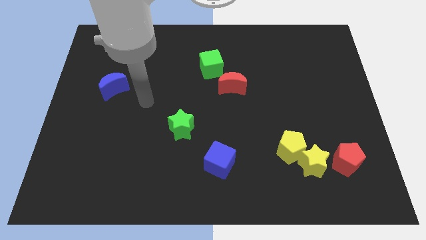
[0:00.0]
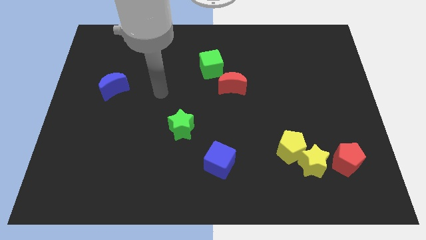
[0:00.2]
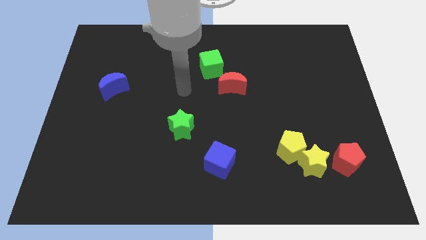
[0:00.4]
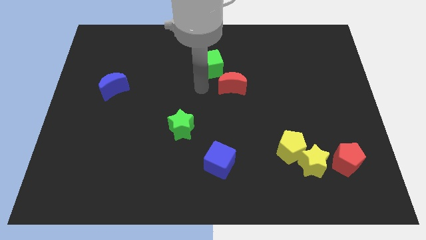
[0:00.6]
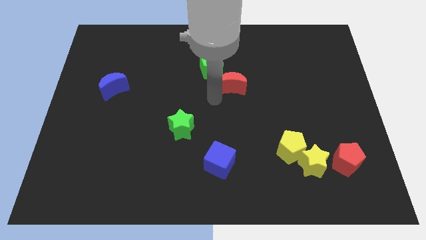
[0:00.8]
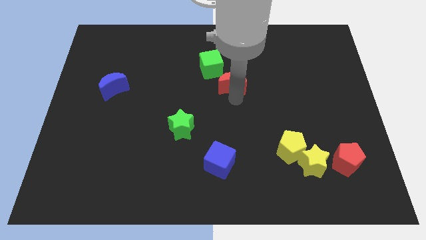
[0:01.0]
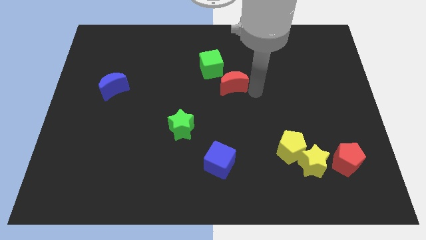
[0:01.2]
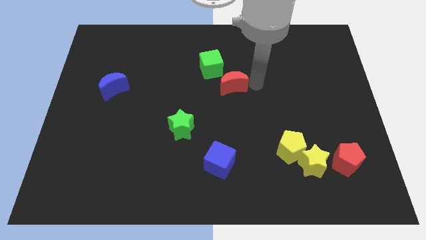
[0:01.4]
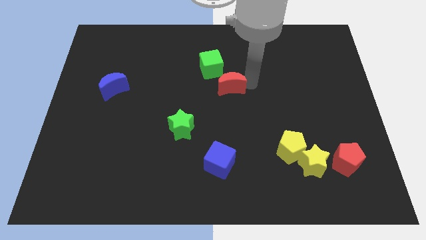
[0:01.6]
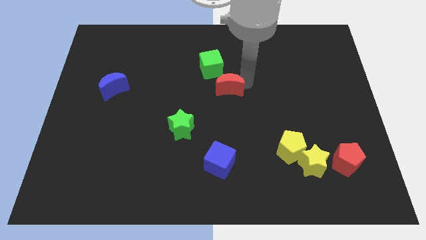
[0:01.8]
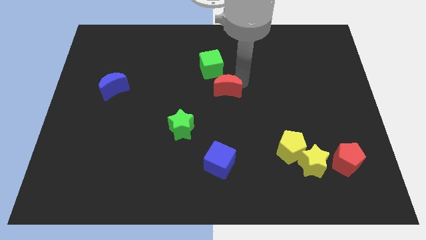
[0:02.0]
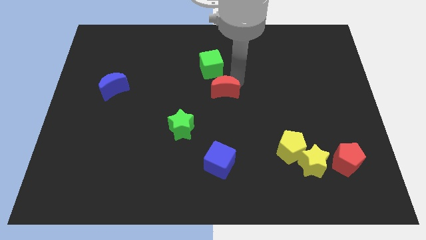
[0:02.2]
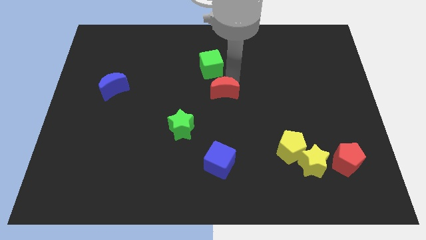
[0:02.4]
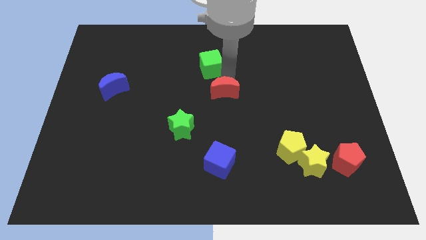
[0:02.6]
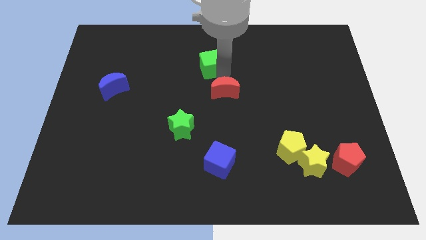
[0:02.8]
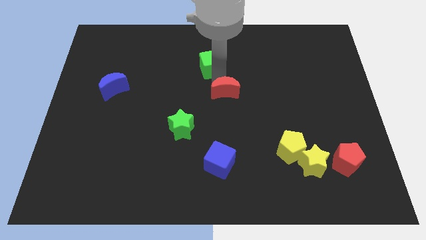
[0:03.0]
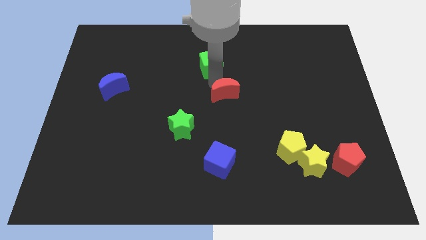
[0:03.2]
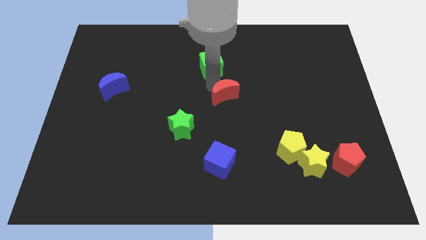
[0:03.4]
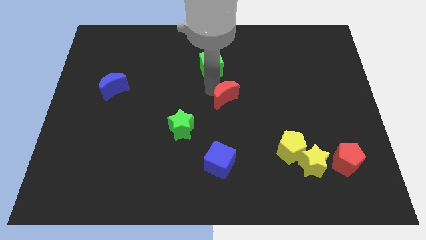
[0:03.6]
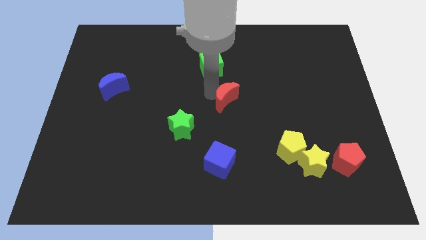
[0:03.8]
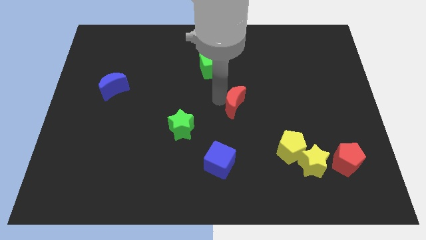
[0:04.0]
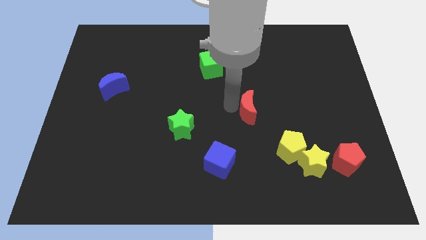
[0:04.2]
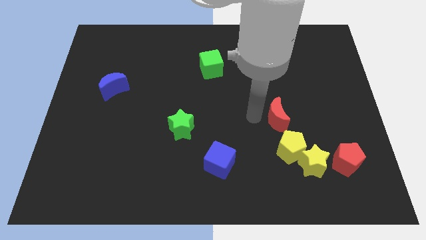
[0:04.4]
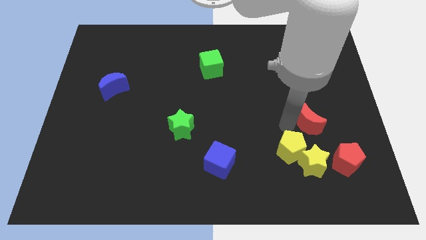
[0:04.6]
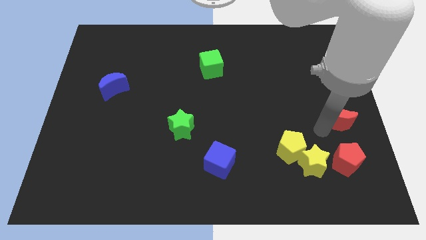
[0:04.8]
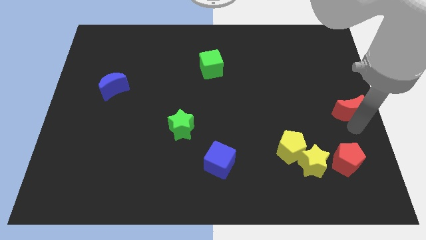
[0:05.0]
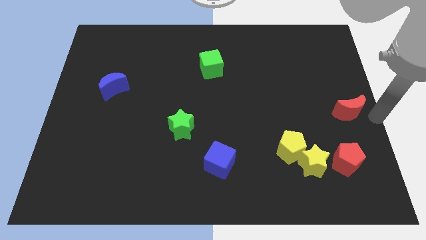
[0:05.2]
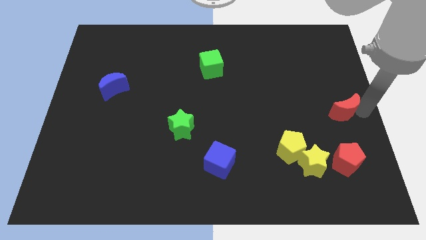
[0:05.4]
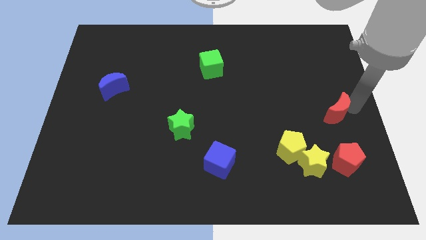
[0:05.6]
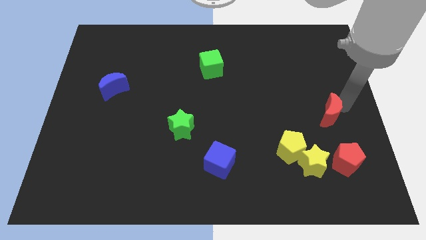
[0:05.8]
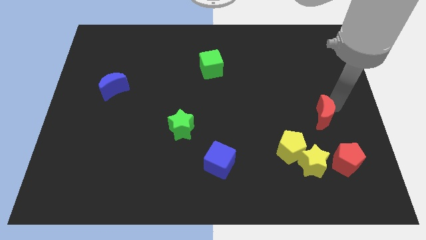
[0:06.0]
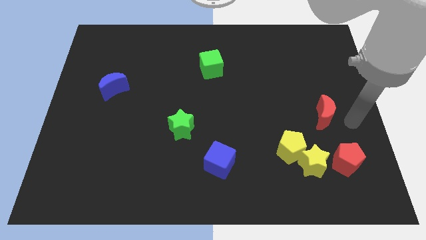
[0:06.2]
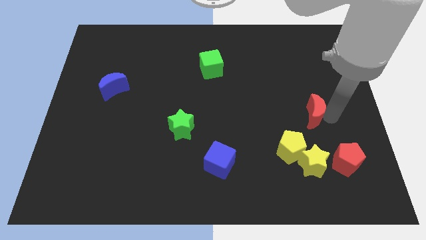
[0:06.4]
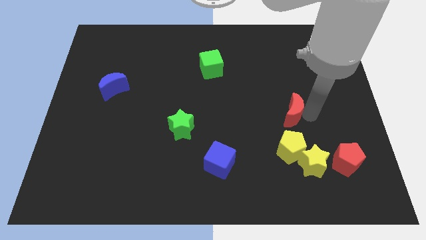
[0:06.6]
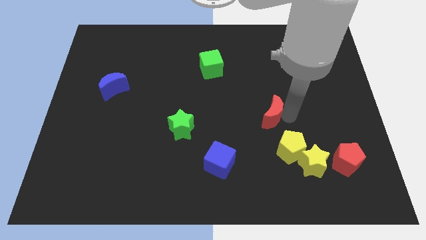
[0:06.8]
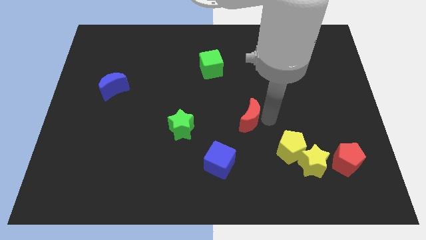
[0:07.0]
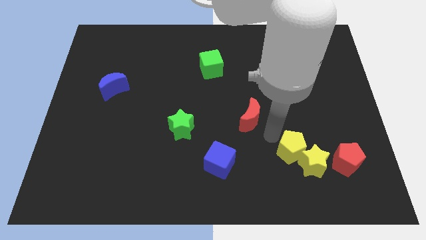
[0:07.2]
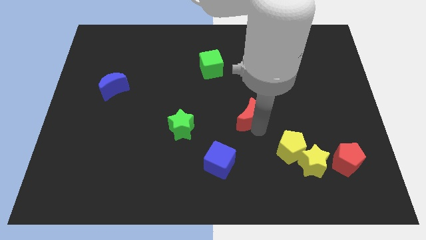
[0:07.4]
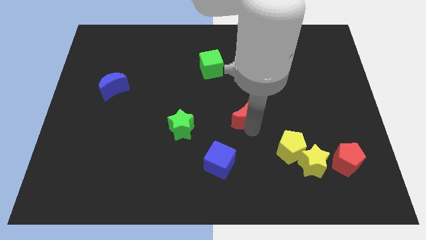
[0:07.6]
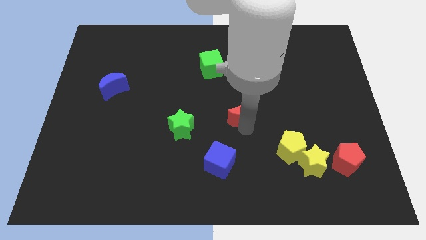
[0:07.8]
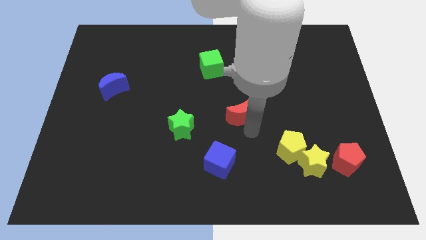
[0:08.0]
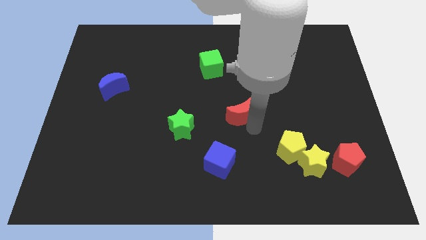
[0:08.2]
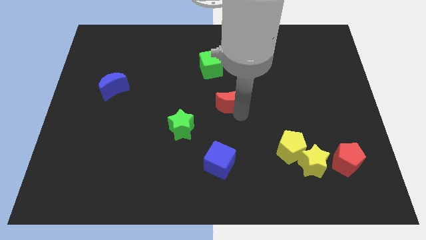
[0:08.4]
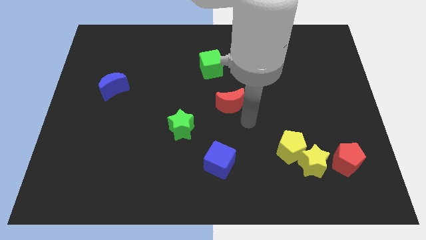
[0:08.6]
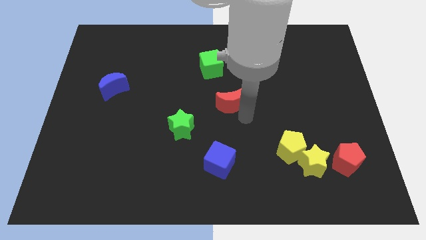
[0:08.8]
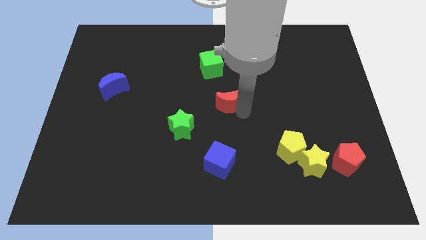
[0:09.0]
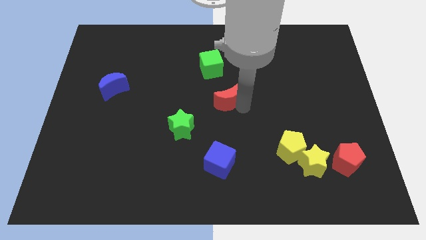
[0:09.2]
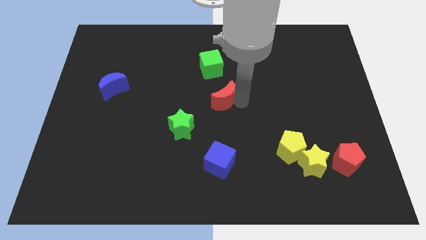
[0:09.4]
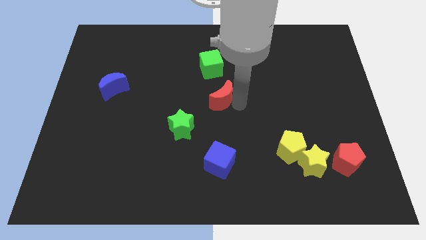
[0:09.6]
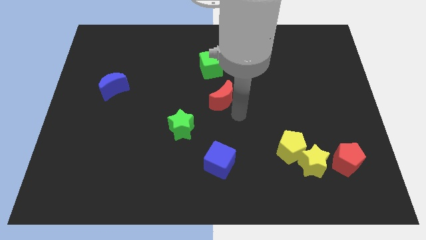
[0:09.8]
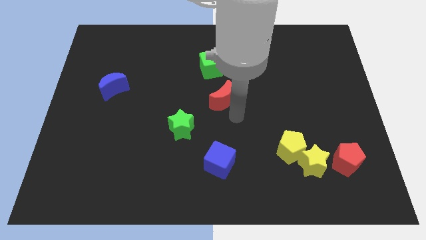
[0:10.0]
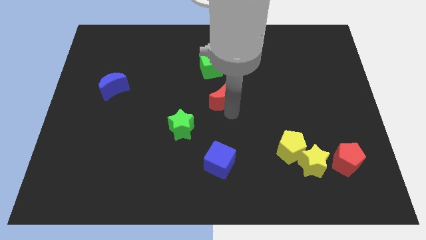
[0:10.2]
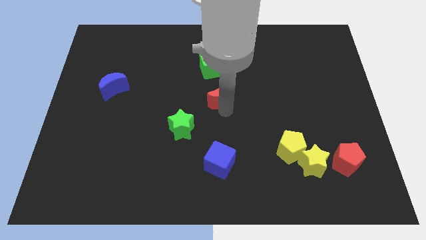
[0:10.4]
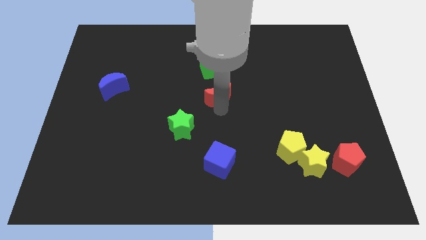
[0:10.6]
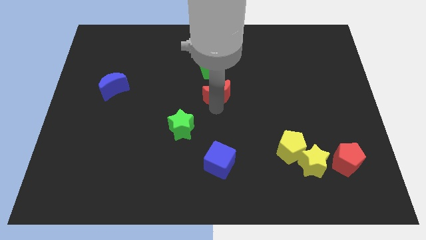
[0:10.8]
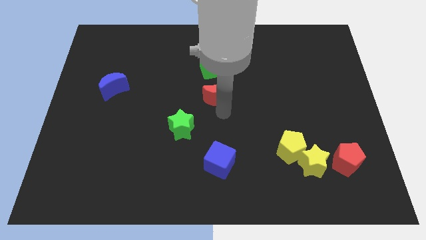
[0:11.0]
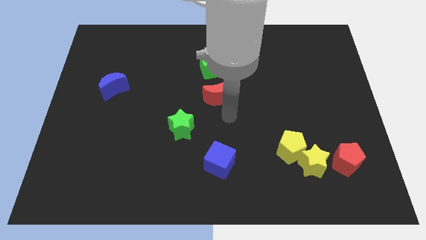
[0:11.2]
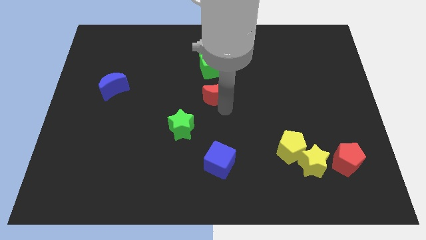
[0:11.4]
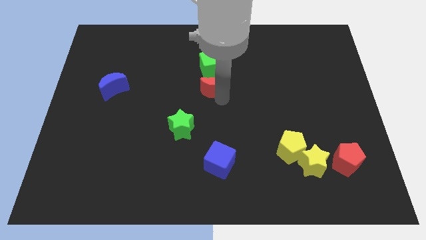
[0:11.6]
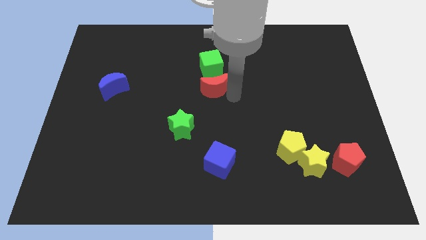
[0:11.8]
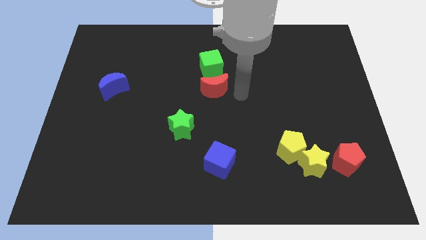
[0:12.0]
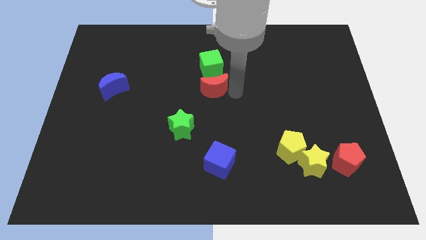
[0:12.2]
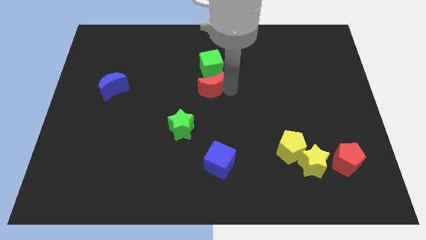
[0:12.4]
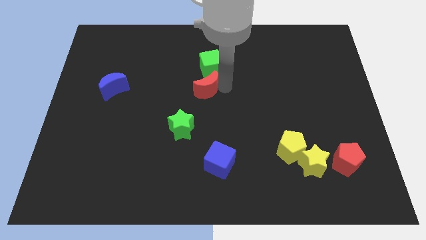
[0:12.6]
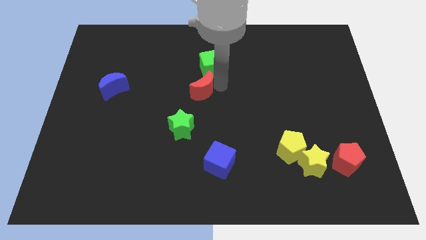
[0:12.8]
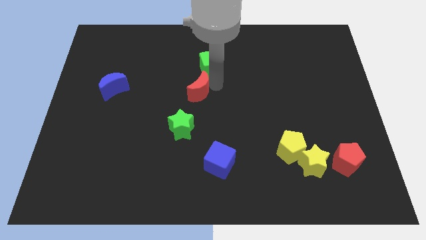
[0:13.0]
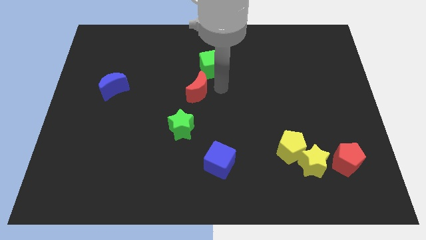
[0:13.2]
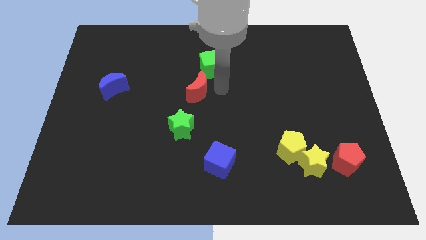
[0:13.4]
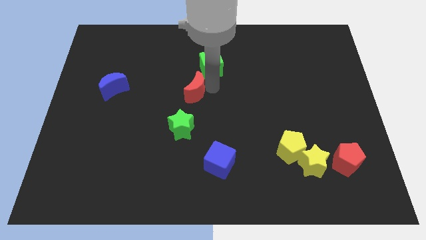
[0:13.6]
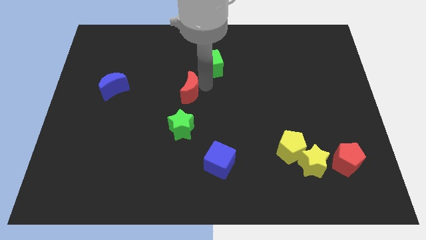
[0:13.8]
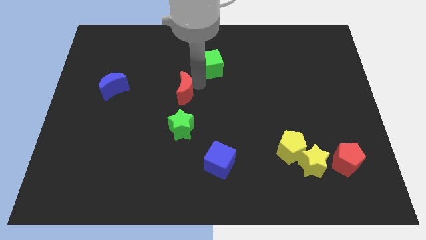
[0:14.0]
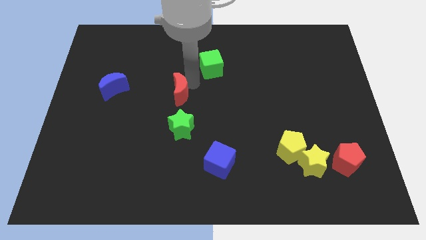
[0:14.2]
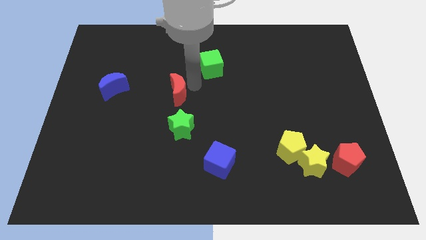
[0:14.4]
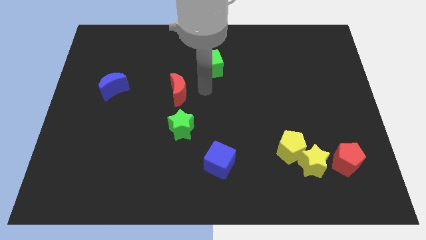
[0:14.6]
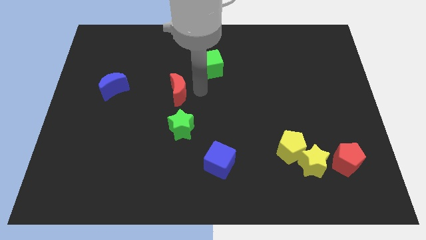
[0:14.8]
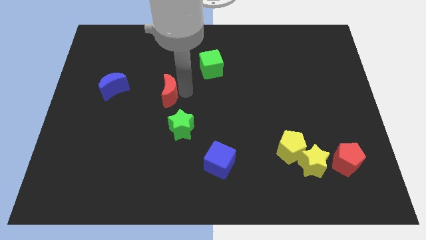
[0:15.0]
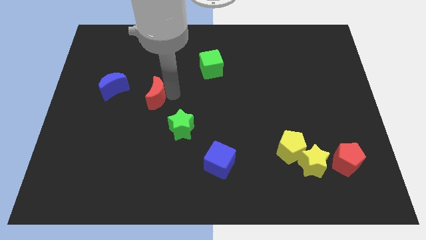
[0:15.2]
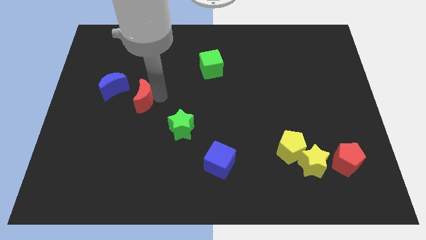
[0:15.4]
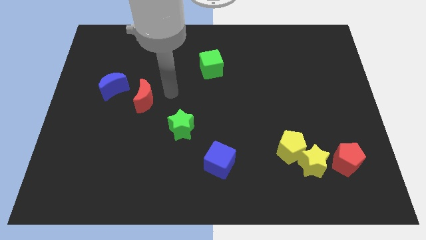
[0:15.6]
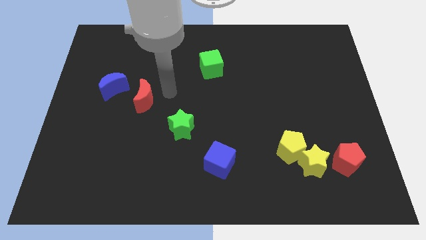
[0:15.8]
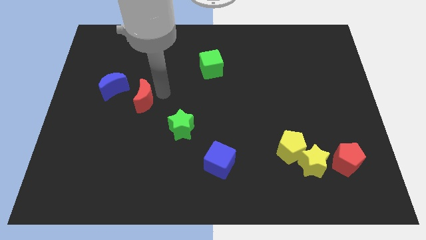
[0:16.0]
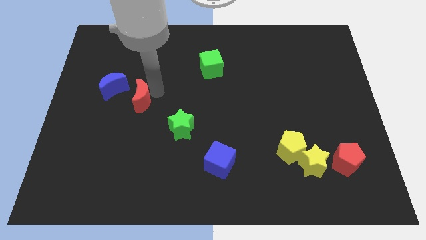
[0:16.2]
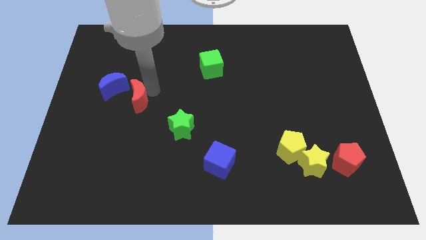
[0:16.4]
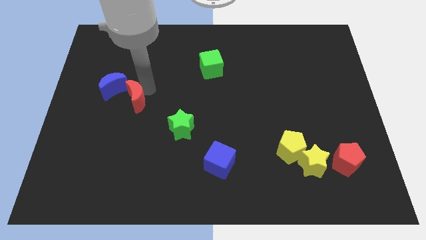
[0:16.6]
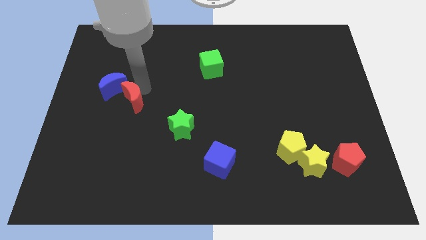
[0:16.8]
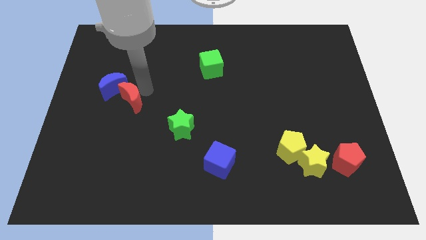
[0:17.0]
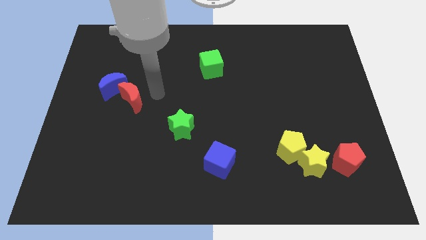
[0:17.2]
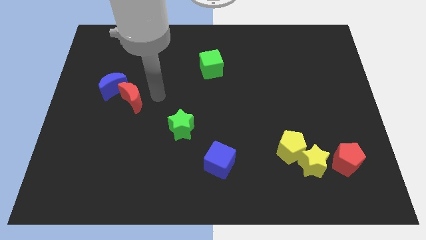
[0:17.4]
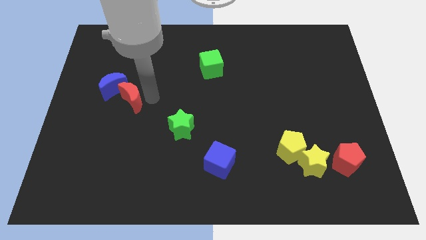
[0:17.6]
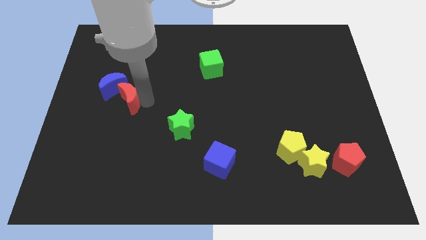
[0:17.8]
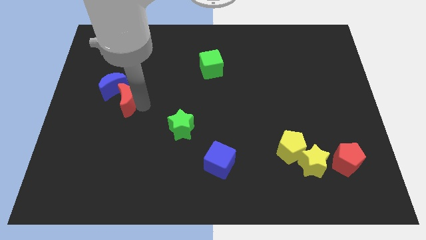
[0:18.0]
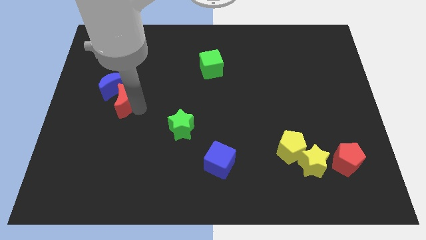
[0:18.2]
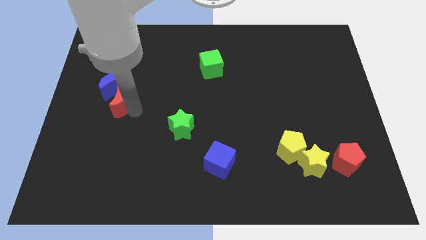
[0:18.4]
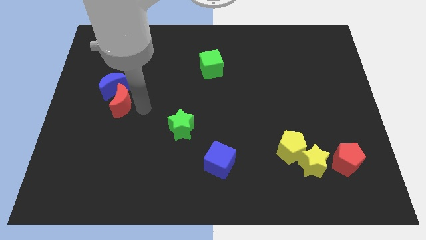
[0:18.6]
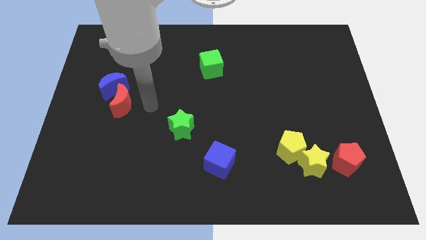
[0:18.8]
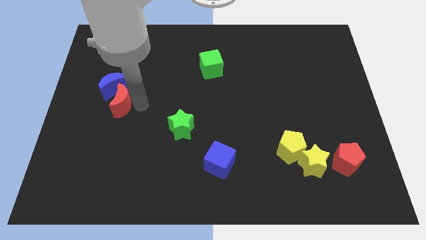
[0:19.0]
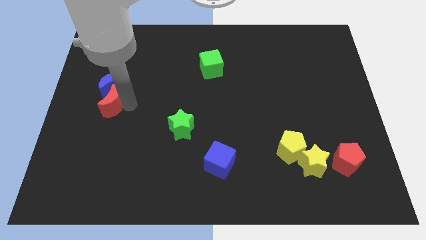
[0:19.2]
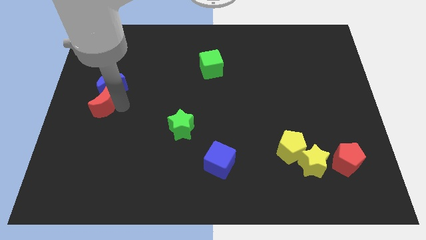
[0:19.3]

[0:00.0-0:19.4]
slide the red moon to the left side
